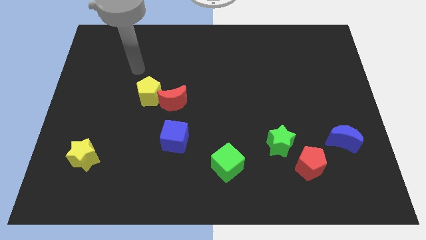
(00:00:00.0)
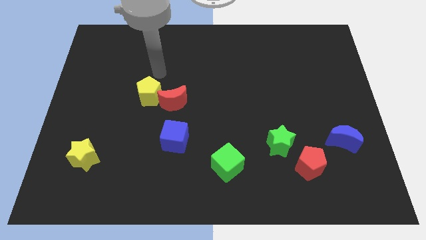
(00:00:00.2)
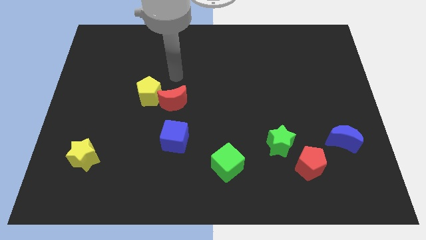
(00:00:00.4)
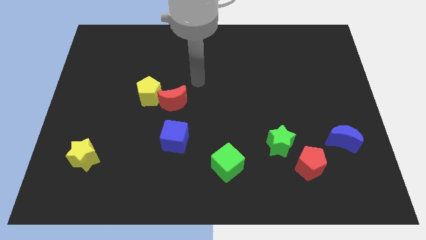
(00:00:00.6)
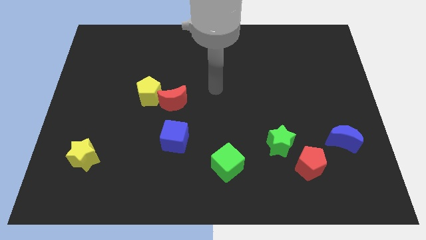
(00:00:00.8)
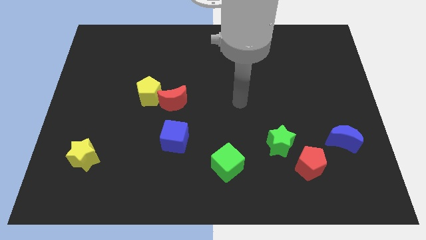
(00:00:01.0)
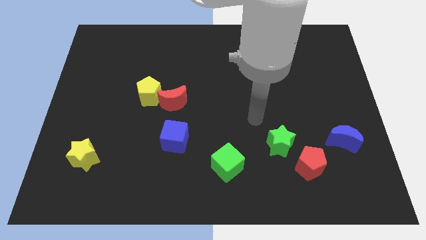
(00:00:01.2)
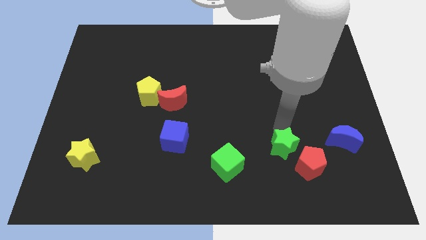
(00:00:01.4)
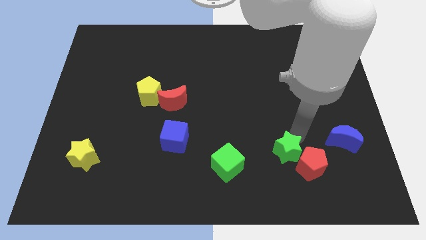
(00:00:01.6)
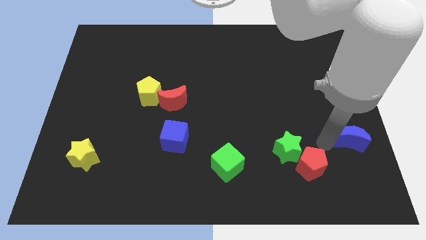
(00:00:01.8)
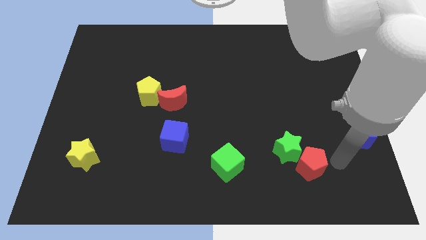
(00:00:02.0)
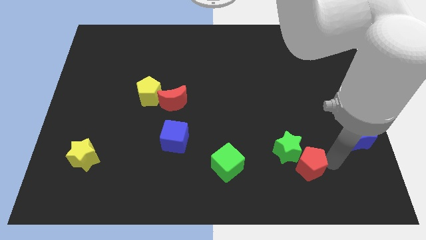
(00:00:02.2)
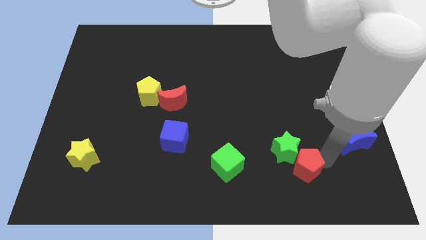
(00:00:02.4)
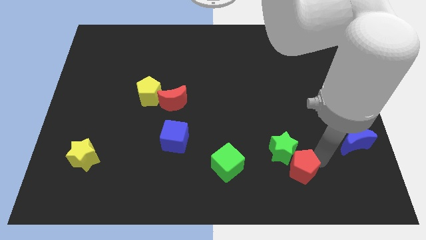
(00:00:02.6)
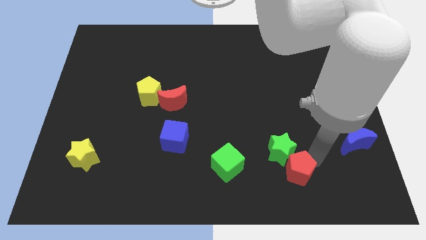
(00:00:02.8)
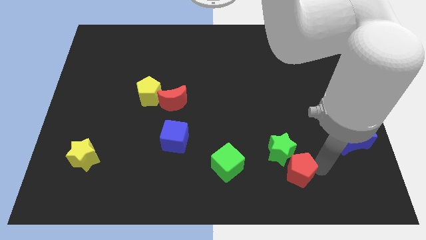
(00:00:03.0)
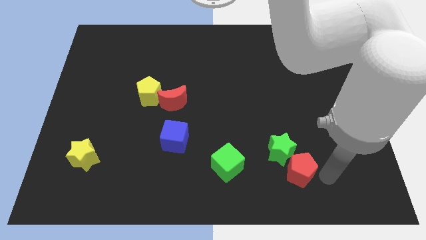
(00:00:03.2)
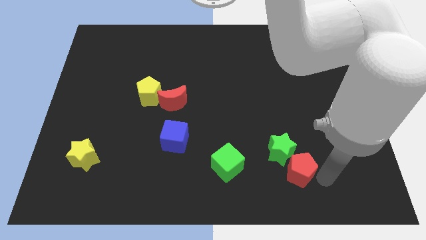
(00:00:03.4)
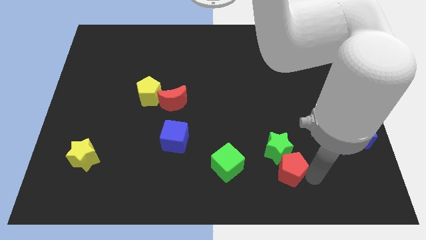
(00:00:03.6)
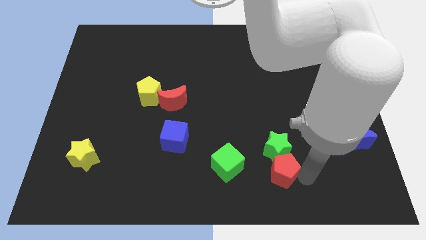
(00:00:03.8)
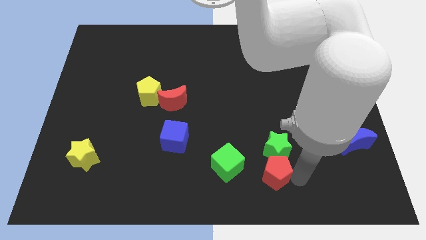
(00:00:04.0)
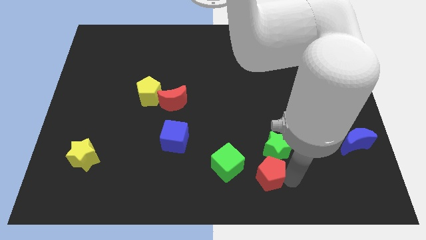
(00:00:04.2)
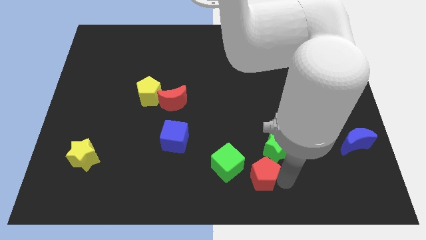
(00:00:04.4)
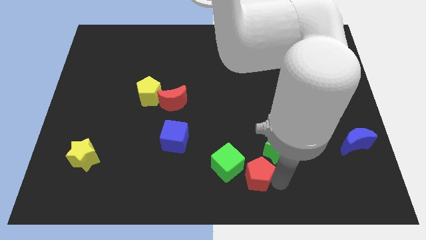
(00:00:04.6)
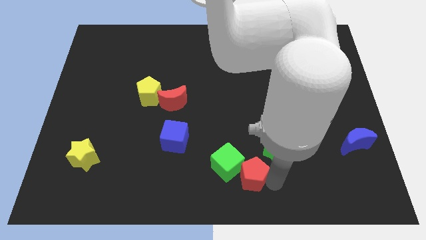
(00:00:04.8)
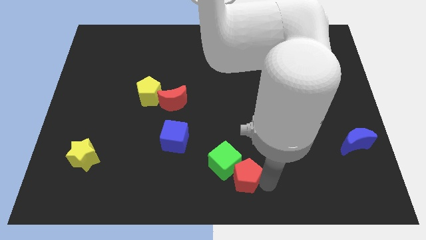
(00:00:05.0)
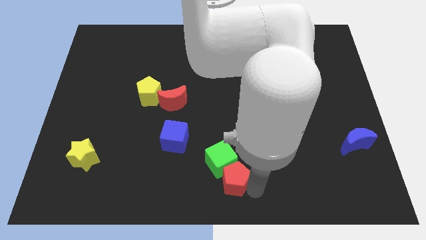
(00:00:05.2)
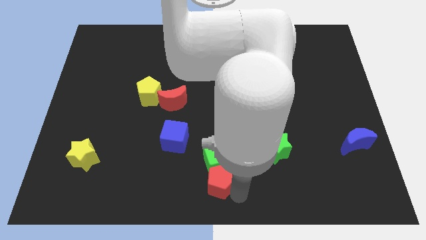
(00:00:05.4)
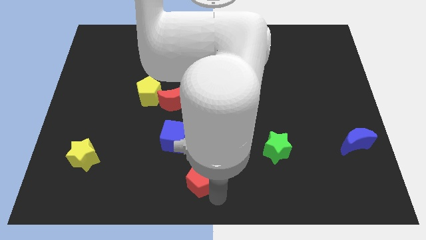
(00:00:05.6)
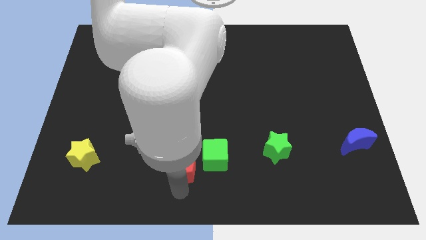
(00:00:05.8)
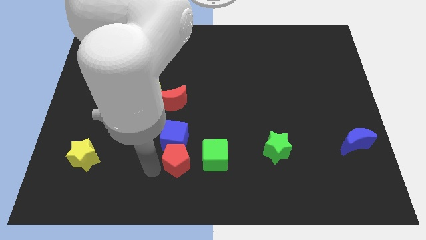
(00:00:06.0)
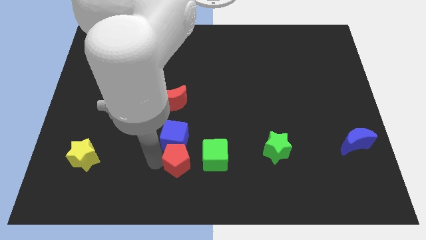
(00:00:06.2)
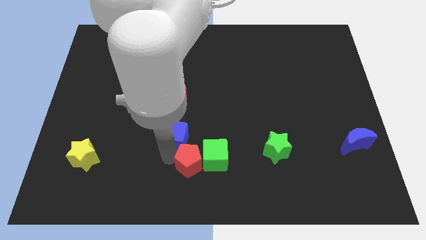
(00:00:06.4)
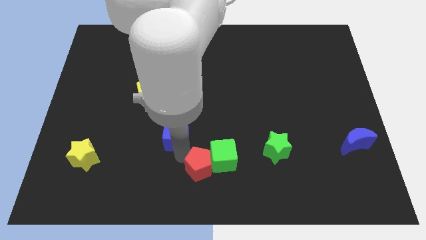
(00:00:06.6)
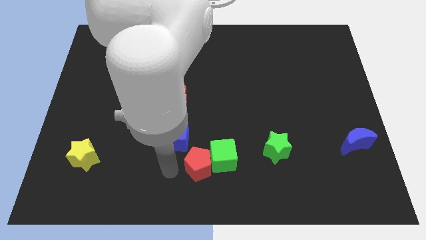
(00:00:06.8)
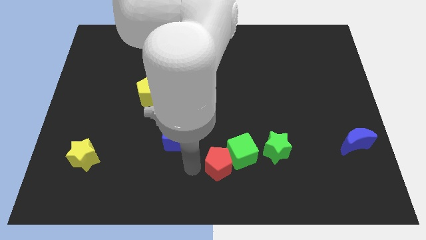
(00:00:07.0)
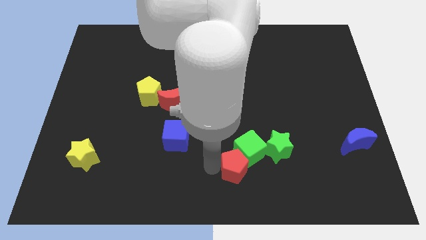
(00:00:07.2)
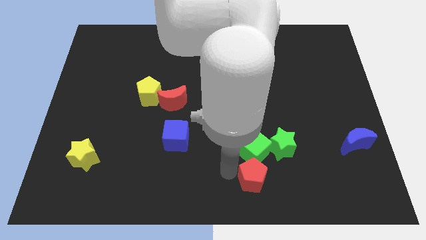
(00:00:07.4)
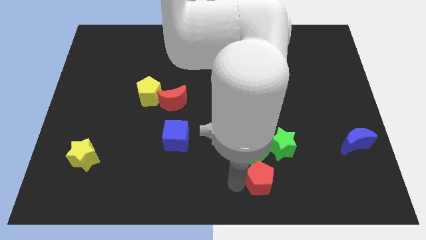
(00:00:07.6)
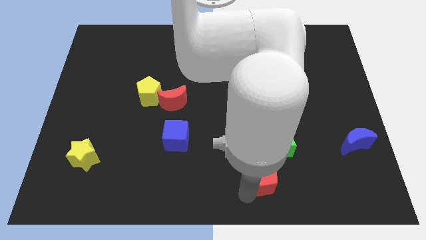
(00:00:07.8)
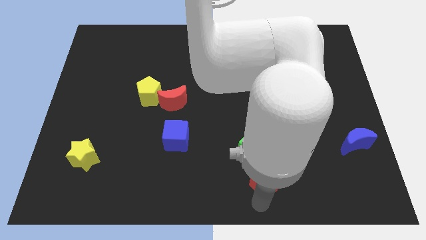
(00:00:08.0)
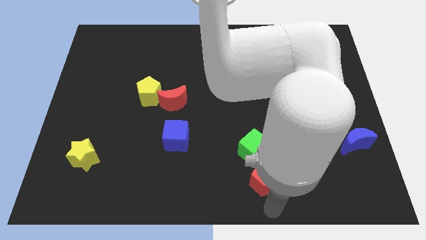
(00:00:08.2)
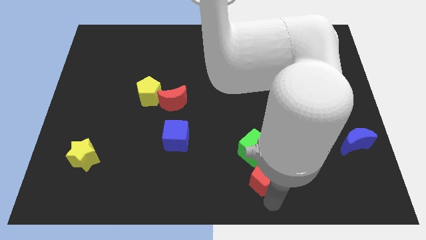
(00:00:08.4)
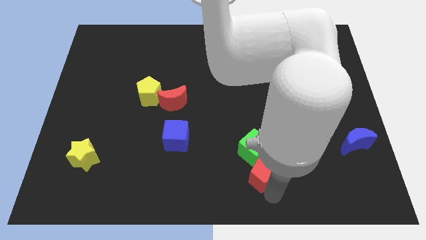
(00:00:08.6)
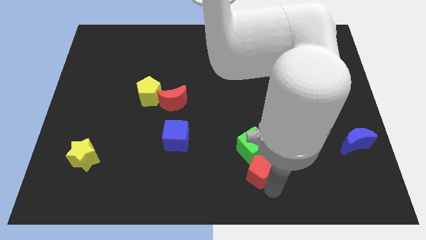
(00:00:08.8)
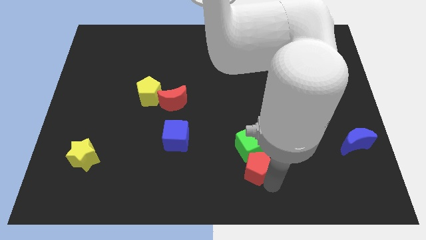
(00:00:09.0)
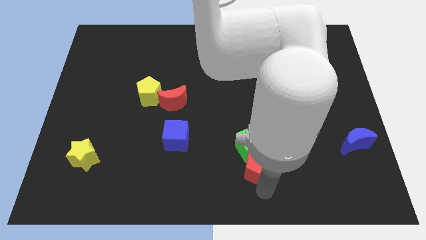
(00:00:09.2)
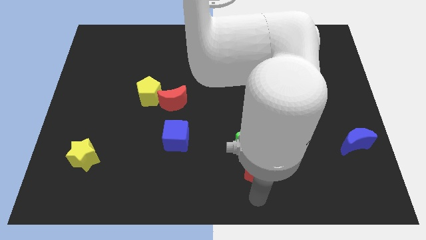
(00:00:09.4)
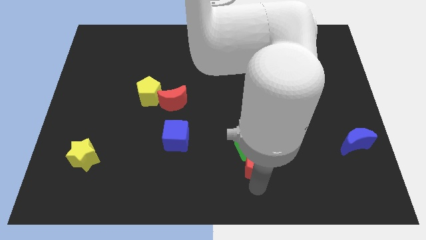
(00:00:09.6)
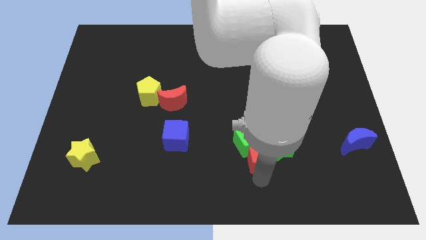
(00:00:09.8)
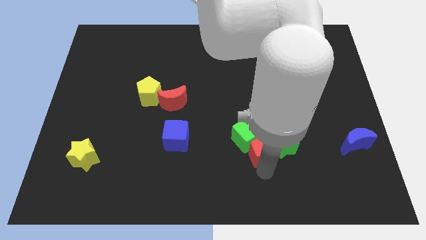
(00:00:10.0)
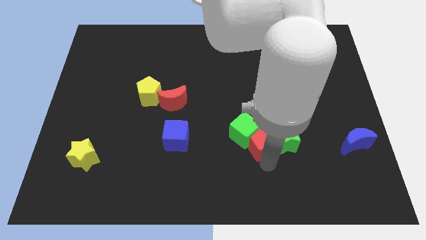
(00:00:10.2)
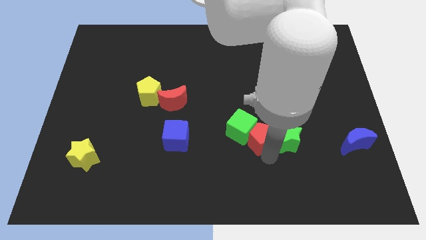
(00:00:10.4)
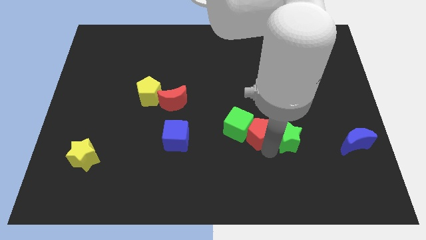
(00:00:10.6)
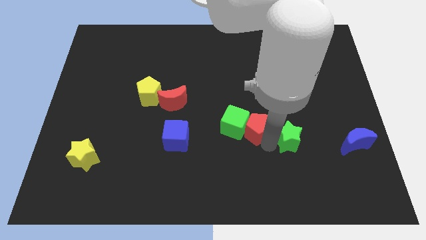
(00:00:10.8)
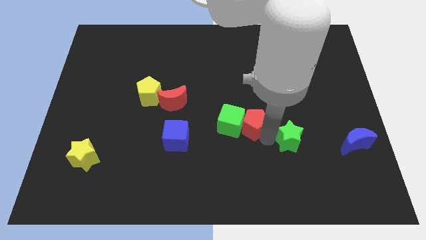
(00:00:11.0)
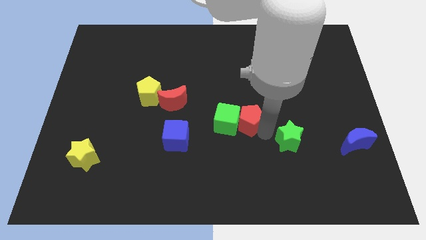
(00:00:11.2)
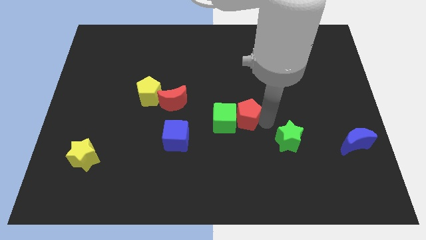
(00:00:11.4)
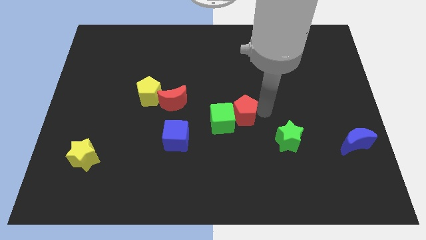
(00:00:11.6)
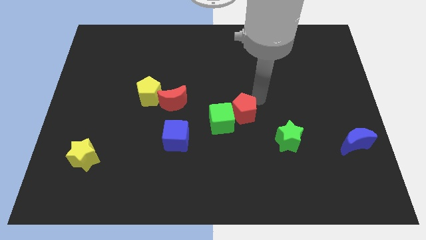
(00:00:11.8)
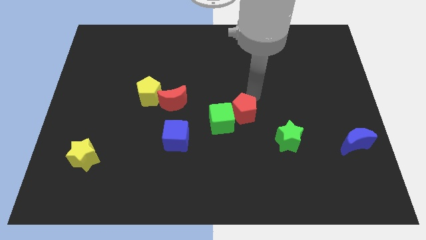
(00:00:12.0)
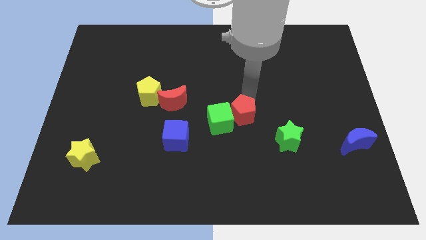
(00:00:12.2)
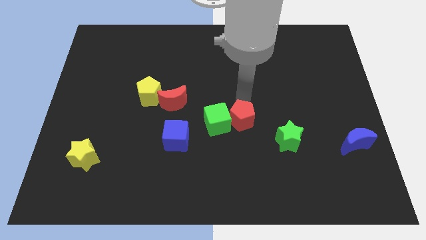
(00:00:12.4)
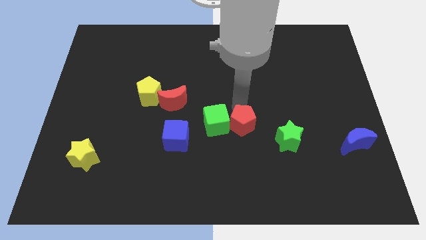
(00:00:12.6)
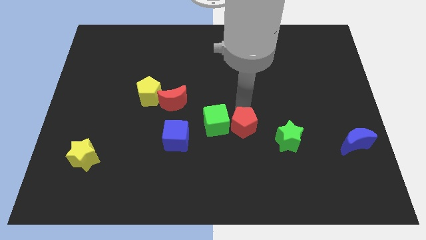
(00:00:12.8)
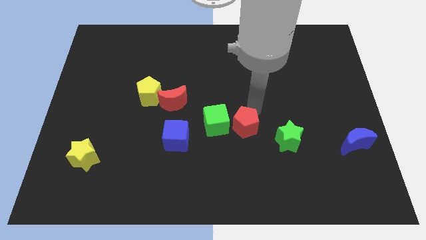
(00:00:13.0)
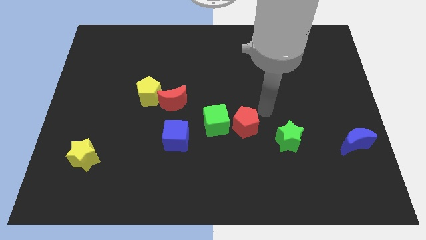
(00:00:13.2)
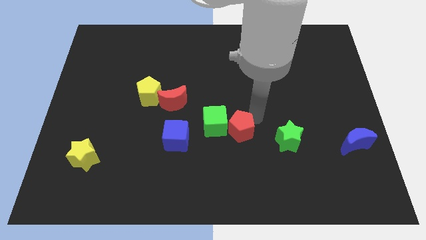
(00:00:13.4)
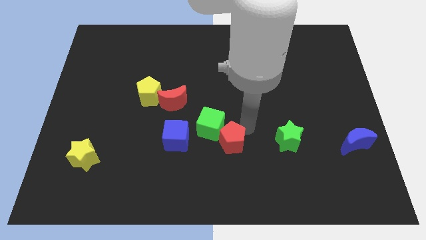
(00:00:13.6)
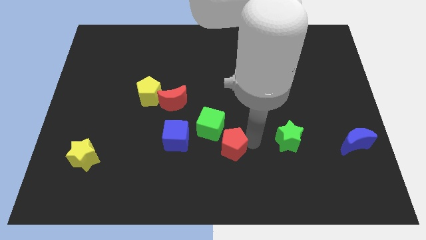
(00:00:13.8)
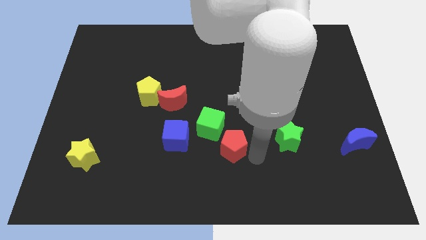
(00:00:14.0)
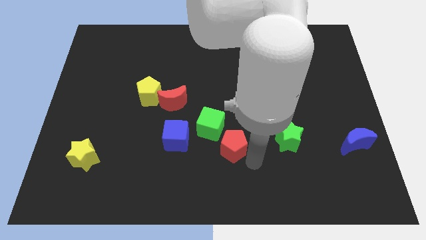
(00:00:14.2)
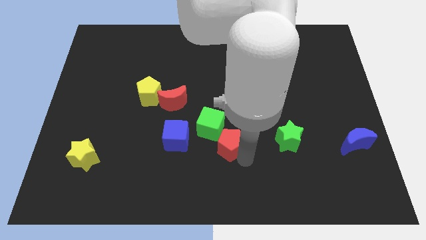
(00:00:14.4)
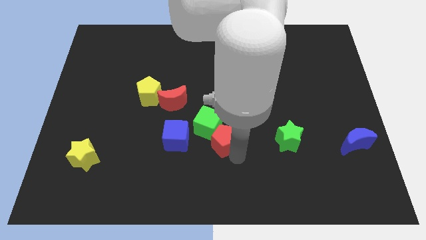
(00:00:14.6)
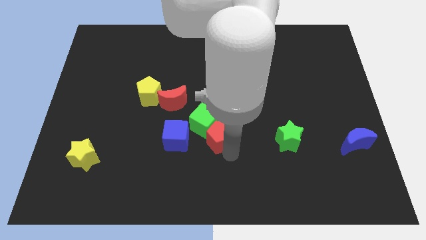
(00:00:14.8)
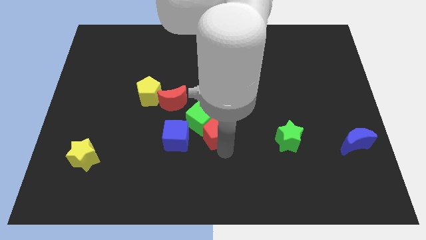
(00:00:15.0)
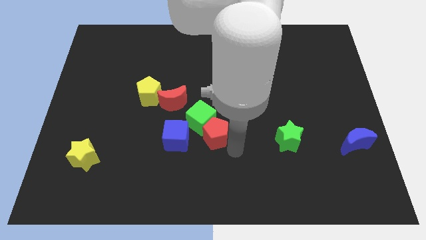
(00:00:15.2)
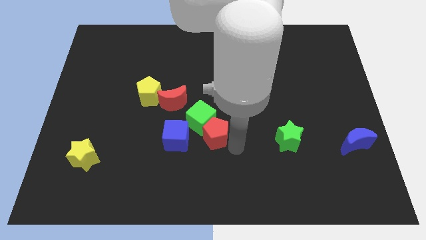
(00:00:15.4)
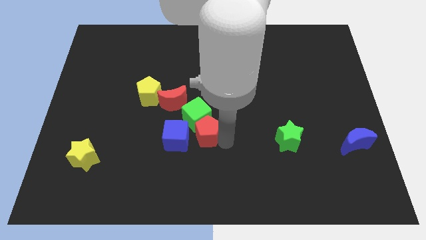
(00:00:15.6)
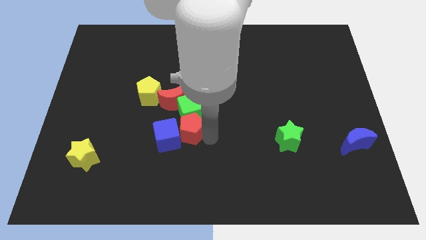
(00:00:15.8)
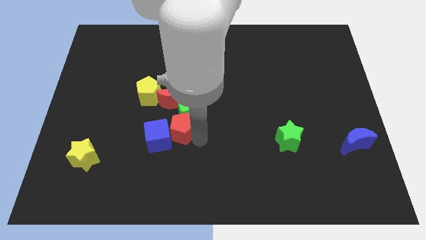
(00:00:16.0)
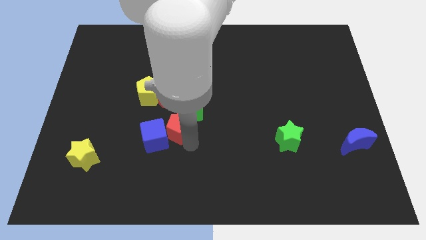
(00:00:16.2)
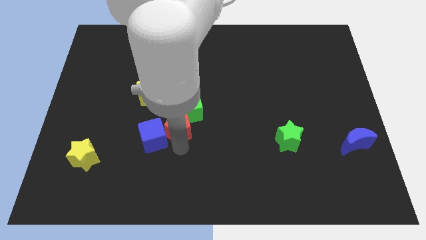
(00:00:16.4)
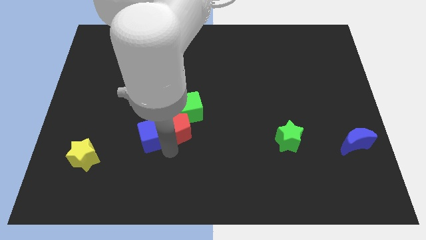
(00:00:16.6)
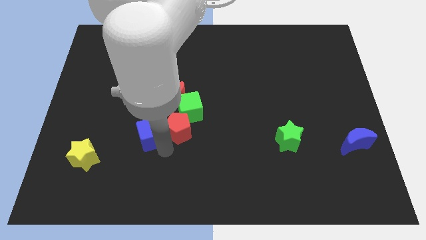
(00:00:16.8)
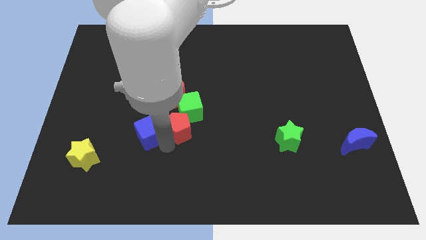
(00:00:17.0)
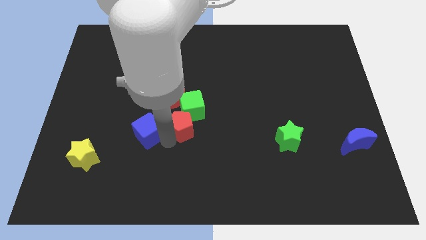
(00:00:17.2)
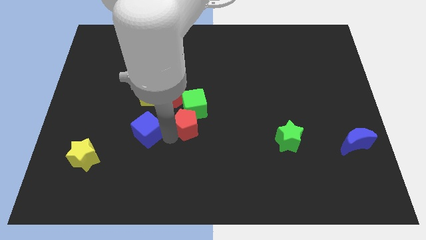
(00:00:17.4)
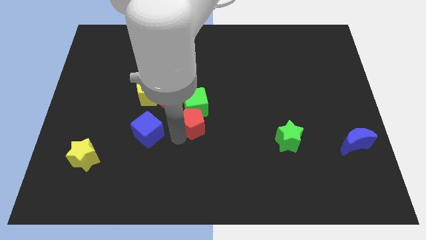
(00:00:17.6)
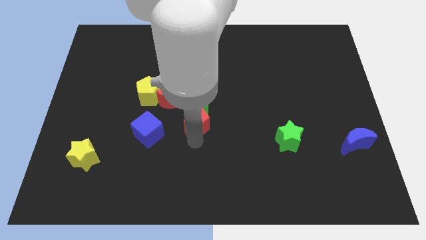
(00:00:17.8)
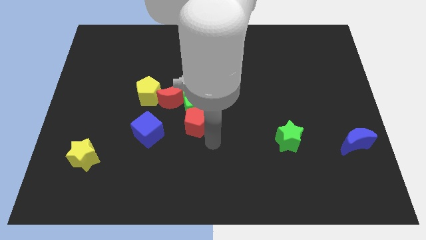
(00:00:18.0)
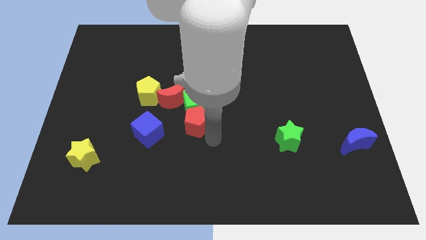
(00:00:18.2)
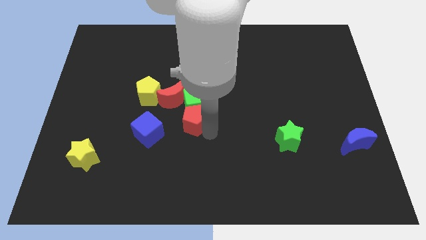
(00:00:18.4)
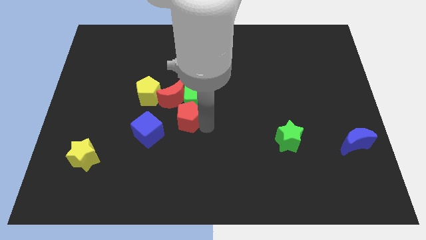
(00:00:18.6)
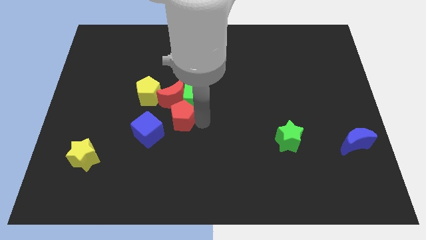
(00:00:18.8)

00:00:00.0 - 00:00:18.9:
move the red pentagon next to the red moon
